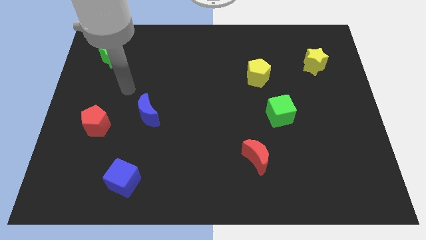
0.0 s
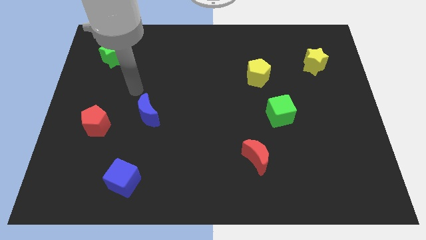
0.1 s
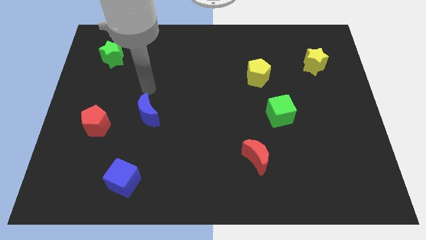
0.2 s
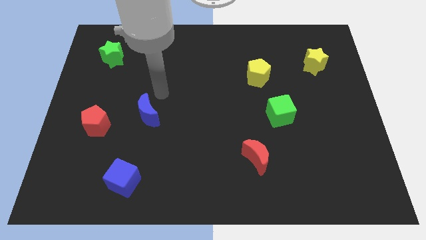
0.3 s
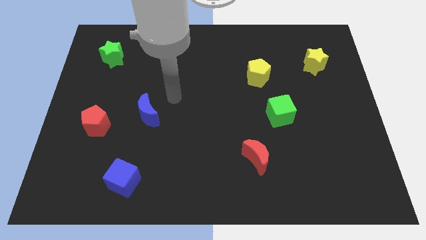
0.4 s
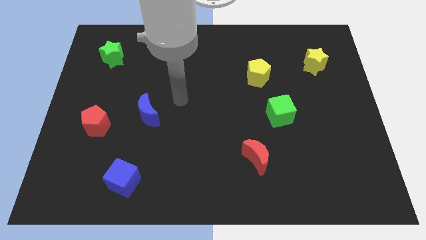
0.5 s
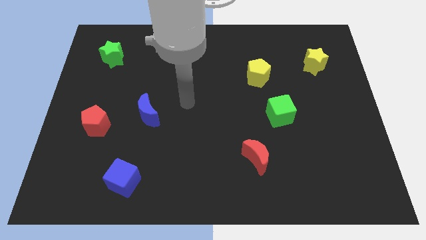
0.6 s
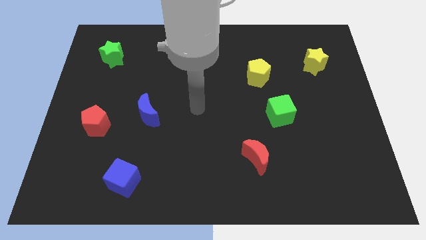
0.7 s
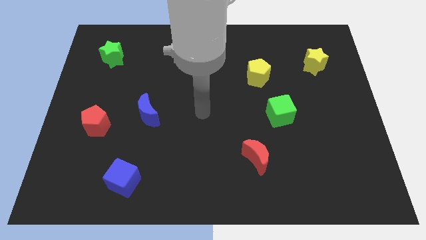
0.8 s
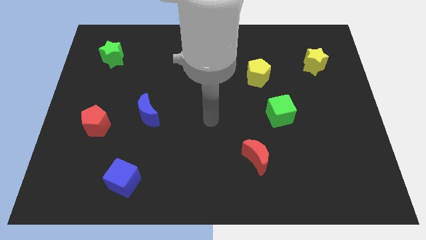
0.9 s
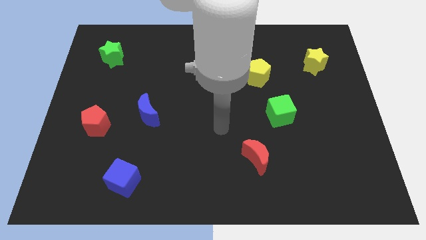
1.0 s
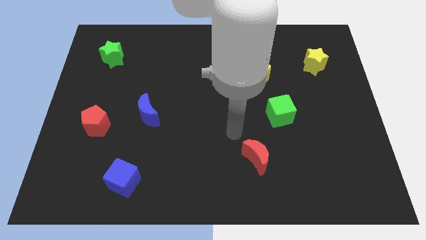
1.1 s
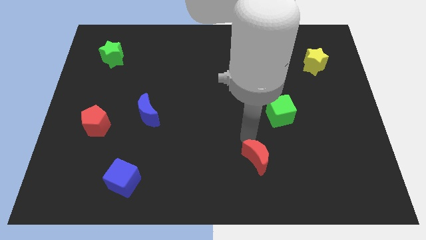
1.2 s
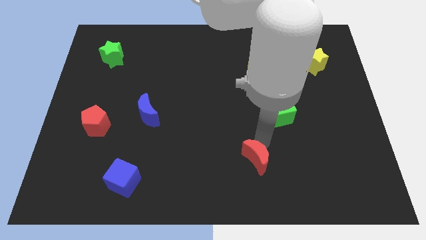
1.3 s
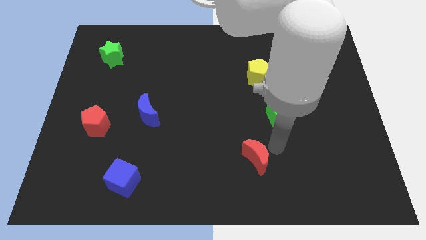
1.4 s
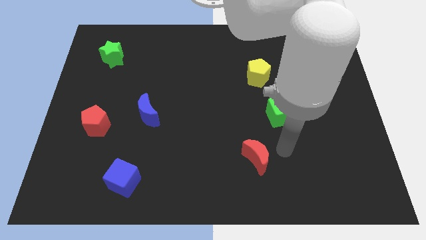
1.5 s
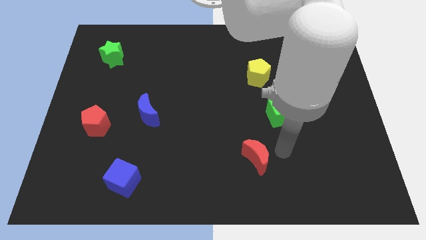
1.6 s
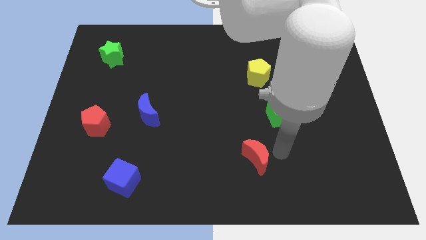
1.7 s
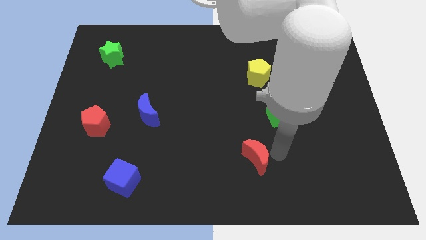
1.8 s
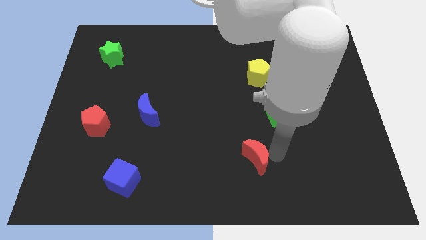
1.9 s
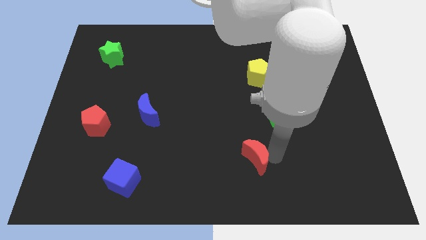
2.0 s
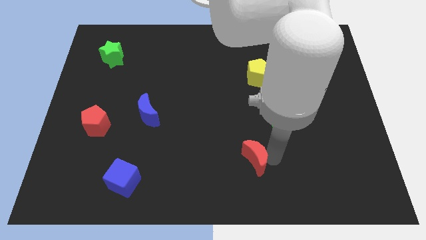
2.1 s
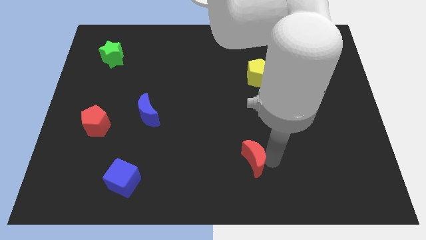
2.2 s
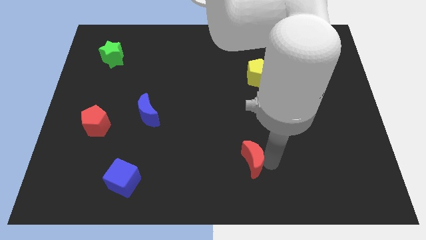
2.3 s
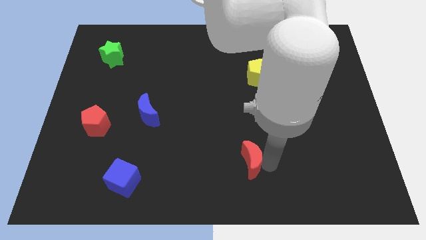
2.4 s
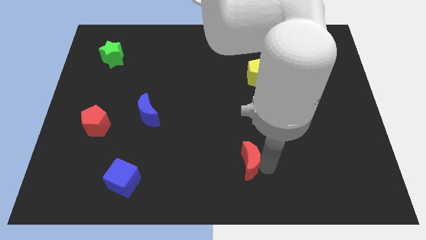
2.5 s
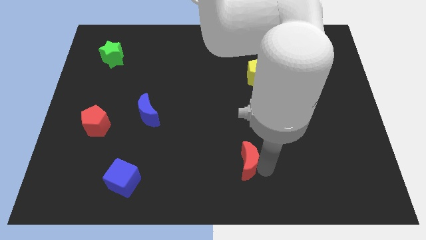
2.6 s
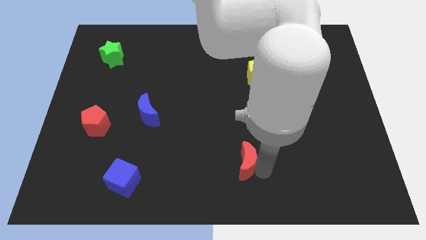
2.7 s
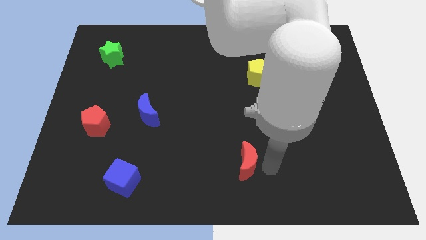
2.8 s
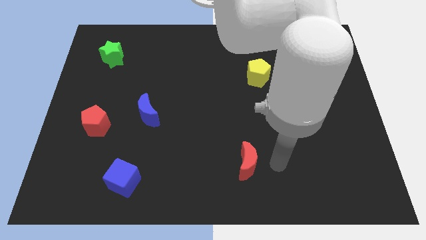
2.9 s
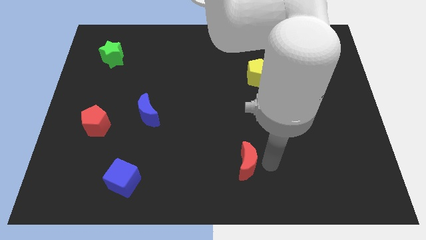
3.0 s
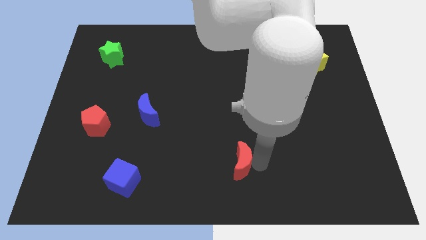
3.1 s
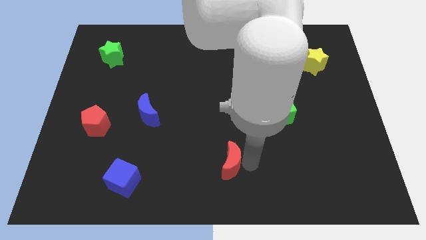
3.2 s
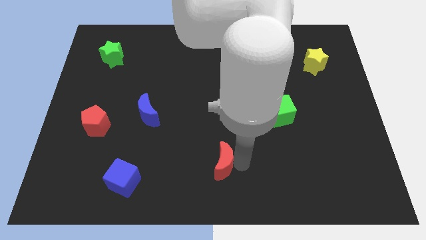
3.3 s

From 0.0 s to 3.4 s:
move the red moon somewhat left

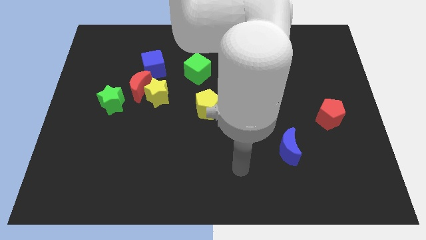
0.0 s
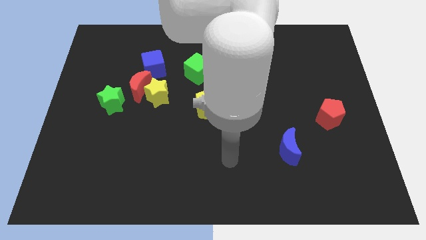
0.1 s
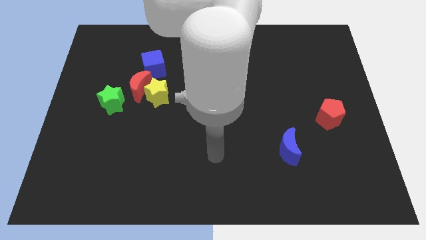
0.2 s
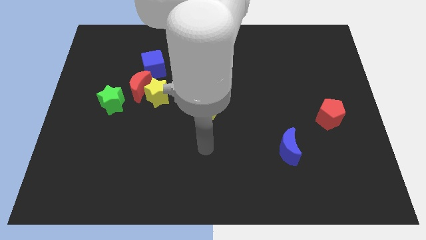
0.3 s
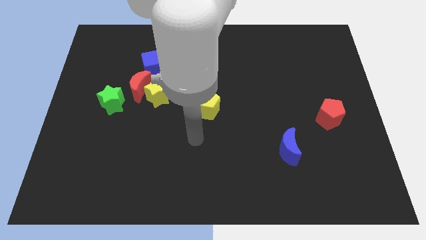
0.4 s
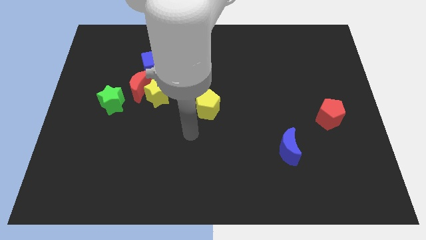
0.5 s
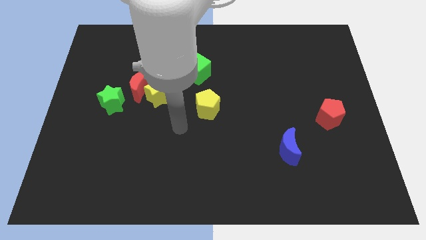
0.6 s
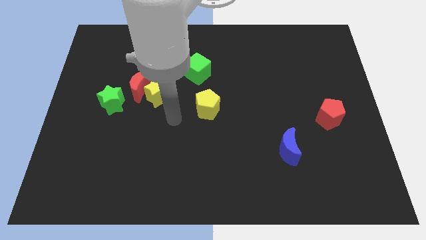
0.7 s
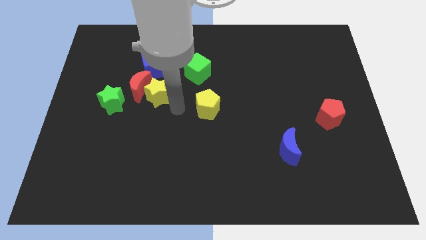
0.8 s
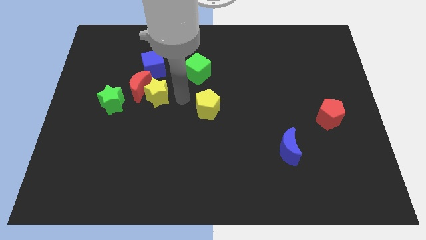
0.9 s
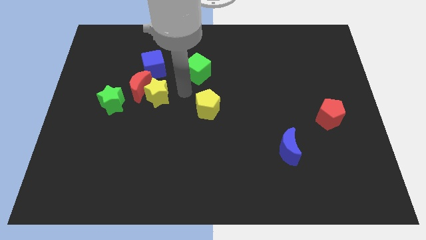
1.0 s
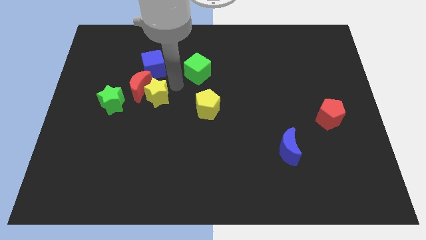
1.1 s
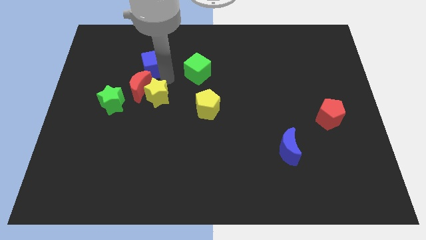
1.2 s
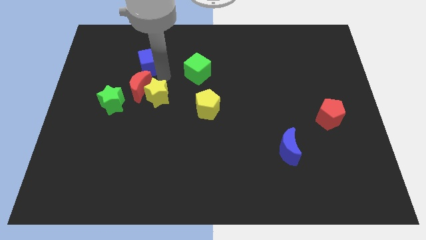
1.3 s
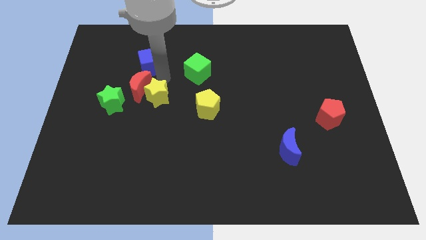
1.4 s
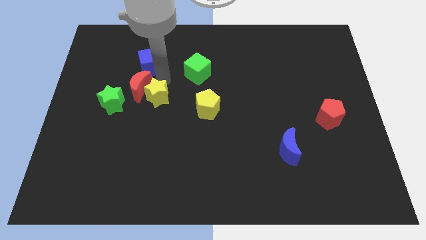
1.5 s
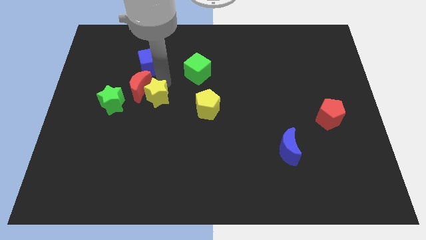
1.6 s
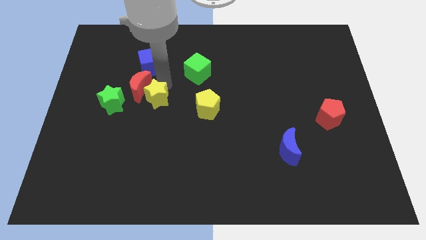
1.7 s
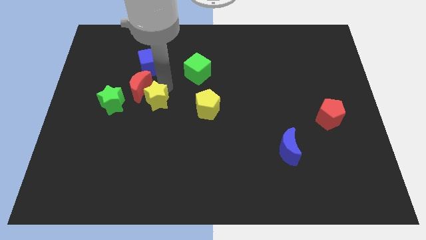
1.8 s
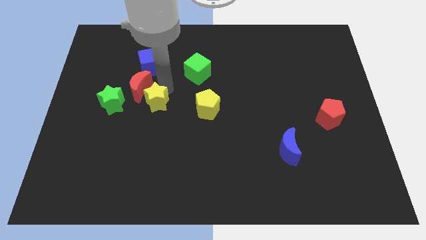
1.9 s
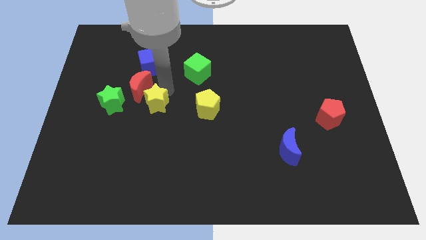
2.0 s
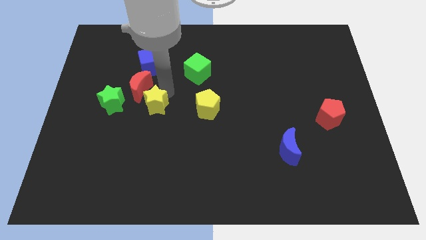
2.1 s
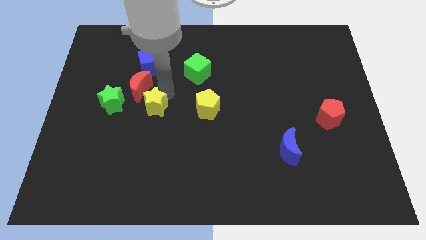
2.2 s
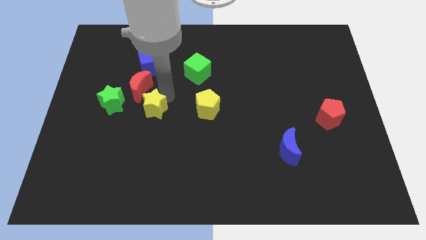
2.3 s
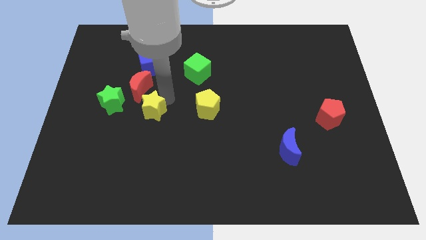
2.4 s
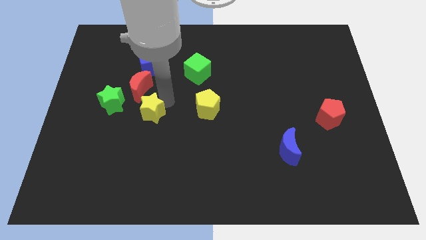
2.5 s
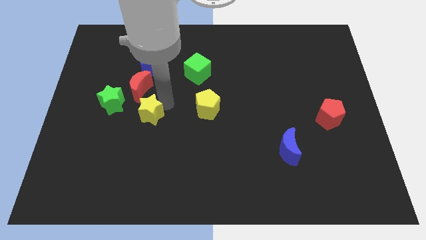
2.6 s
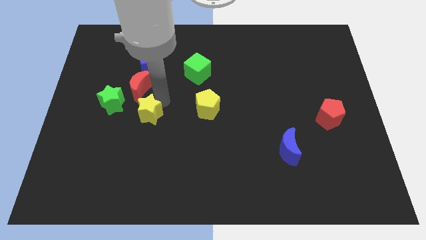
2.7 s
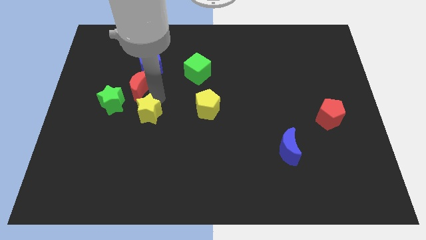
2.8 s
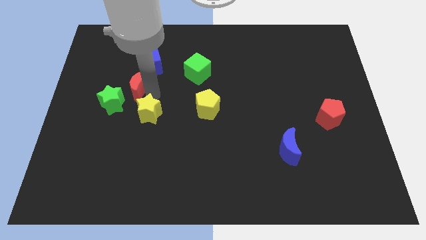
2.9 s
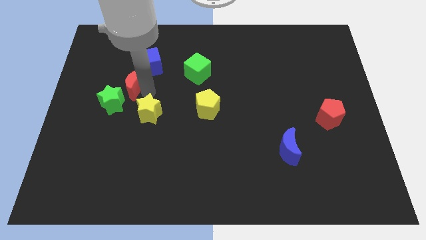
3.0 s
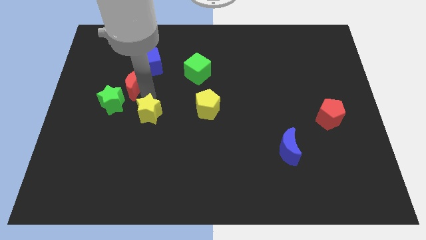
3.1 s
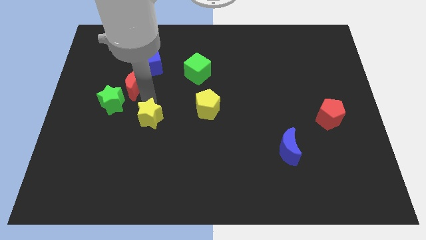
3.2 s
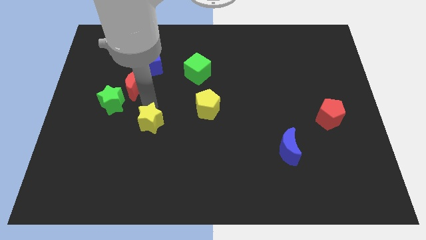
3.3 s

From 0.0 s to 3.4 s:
push the yellow star downwards somewhat

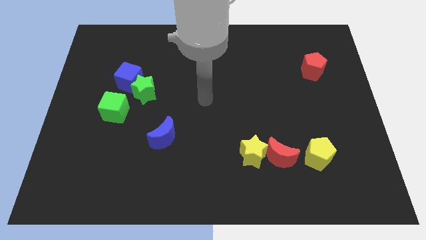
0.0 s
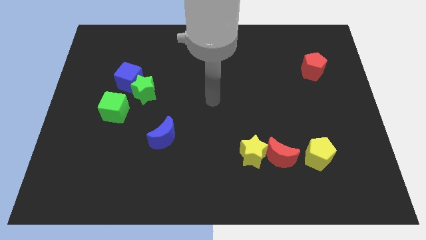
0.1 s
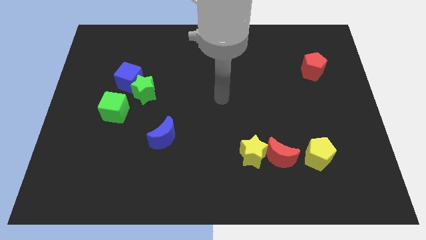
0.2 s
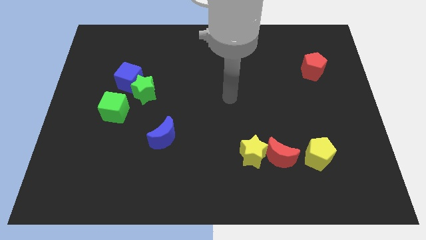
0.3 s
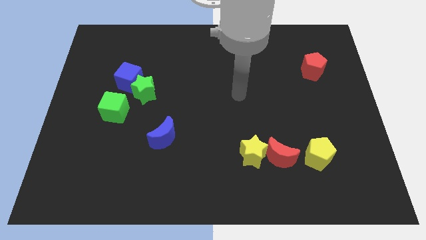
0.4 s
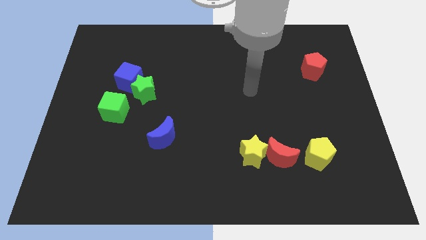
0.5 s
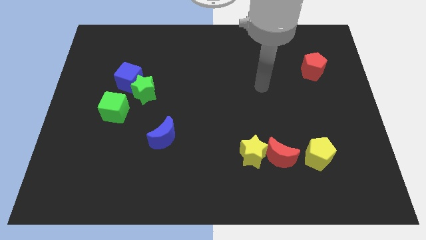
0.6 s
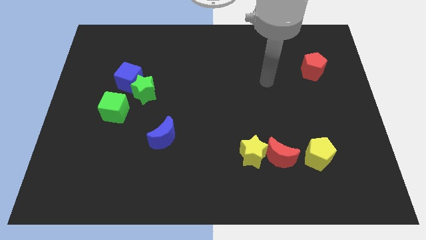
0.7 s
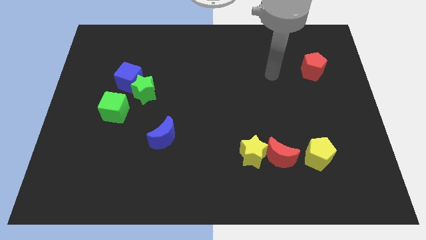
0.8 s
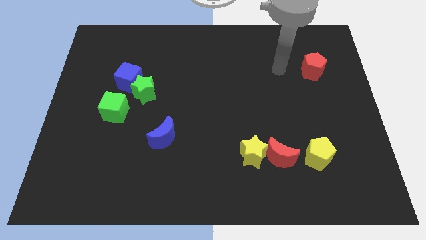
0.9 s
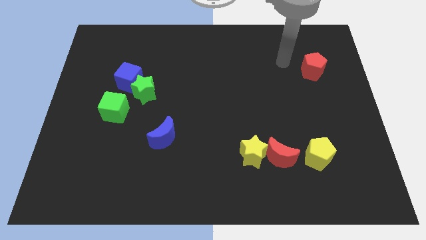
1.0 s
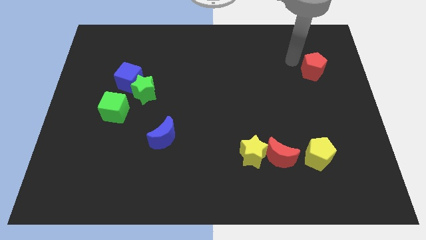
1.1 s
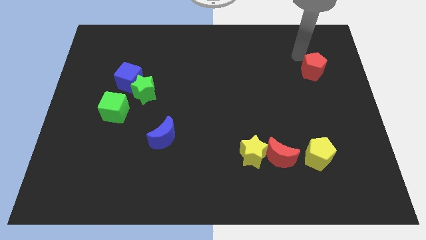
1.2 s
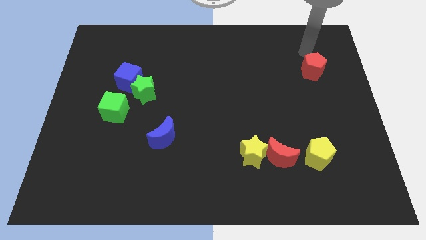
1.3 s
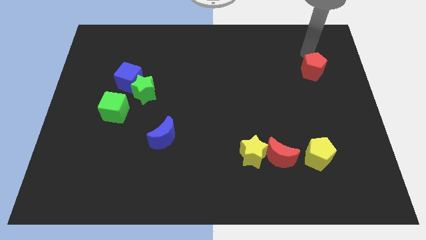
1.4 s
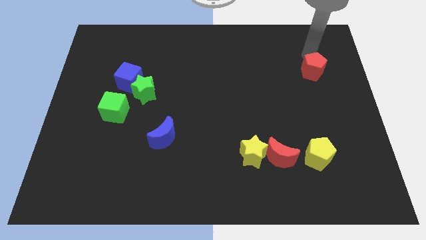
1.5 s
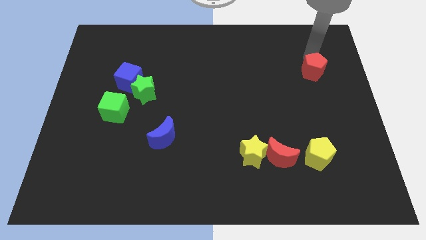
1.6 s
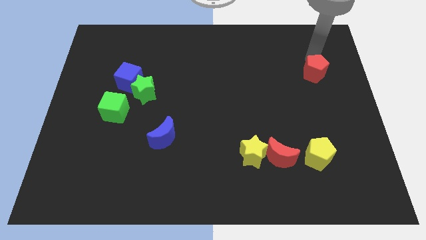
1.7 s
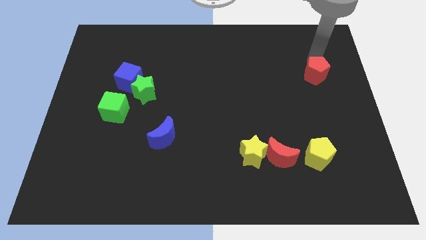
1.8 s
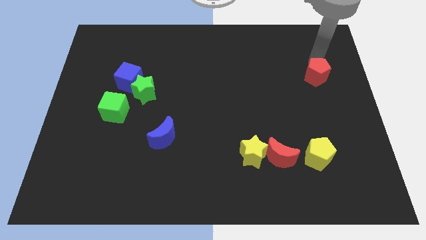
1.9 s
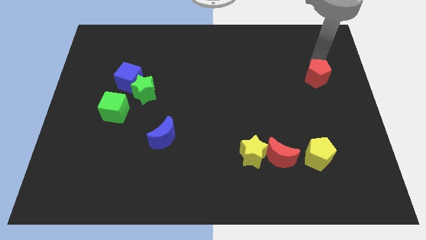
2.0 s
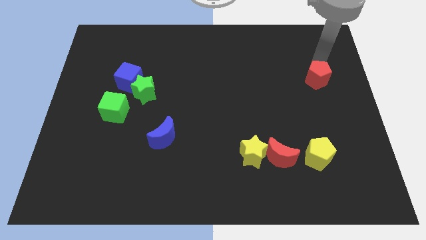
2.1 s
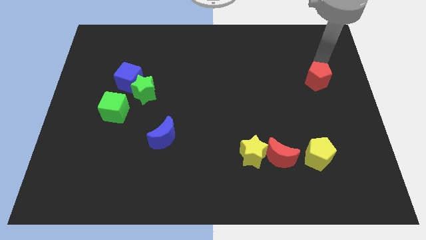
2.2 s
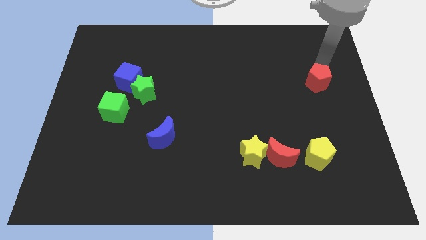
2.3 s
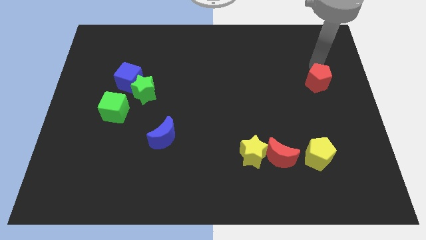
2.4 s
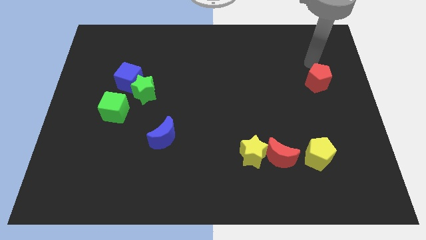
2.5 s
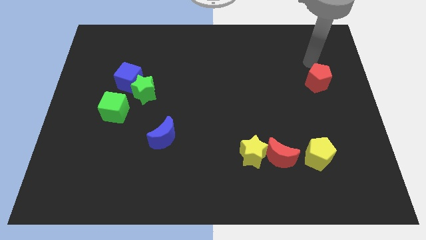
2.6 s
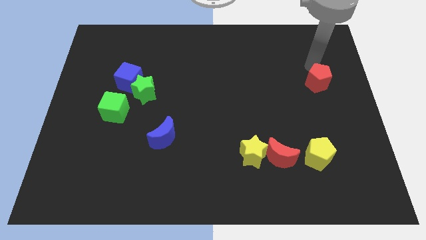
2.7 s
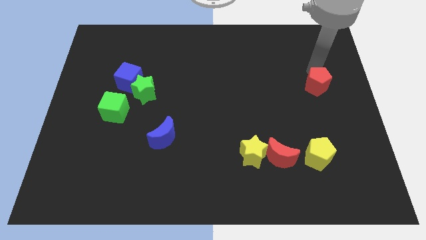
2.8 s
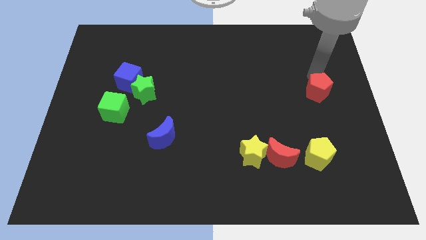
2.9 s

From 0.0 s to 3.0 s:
push the red pentagon somewhat down
